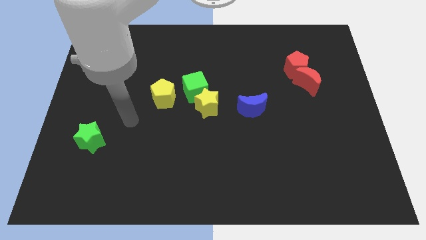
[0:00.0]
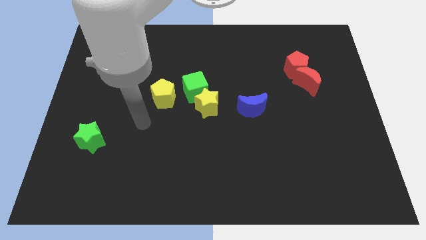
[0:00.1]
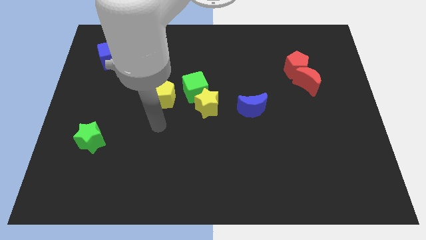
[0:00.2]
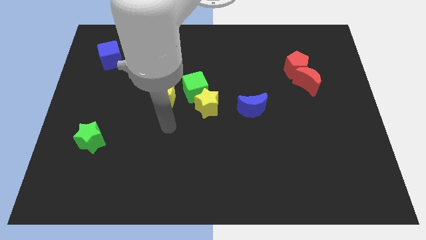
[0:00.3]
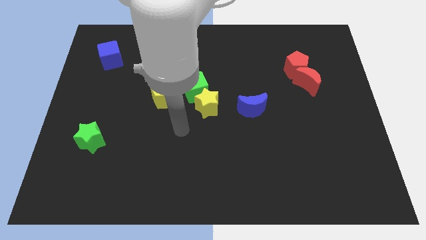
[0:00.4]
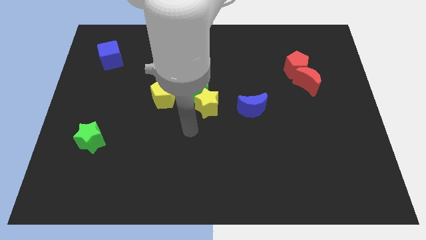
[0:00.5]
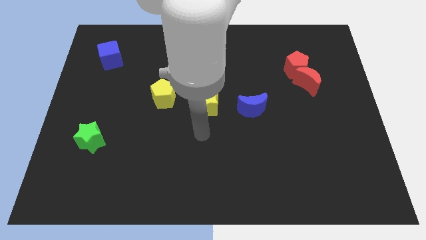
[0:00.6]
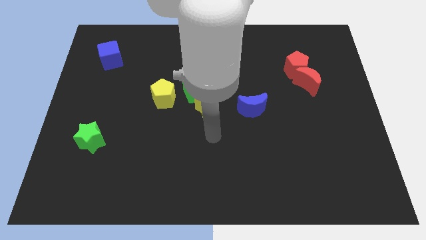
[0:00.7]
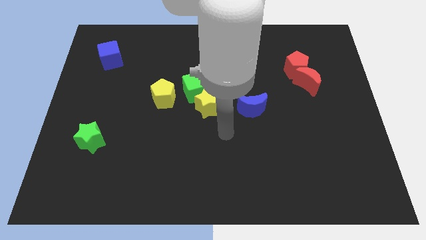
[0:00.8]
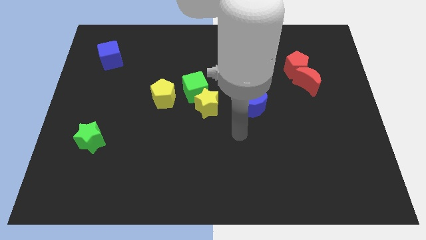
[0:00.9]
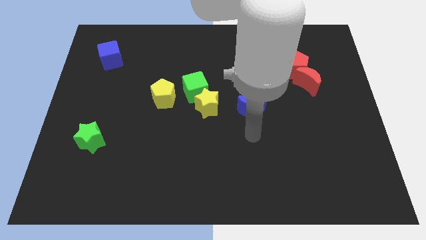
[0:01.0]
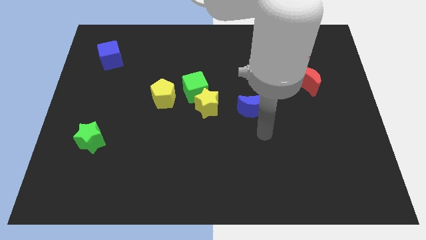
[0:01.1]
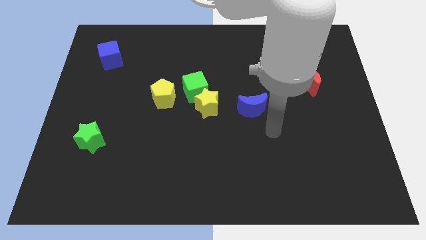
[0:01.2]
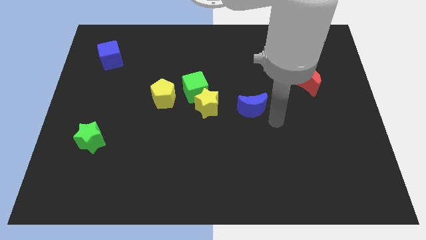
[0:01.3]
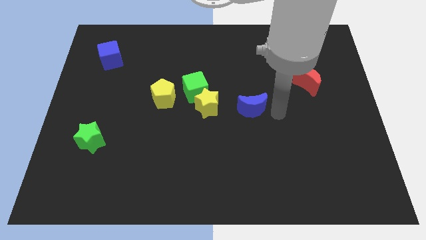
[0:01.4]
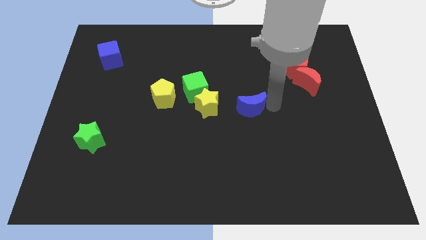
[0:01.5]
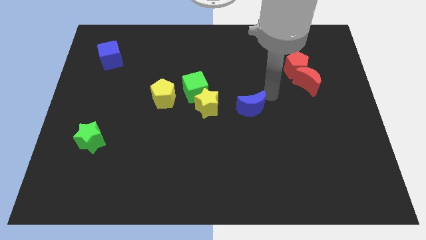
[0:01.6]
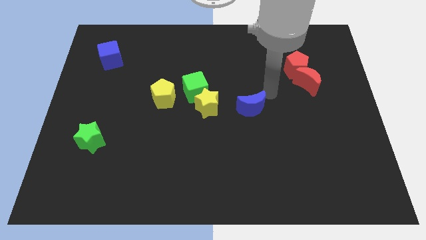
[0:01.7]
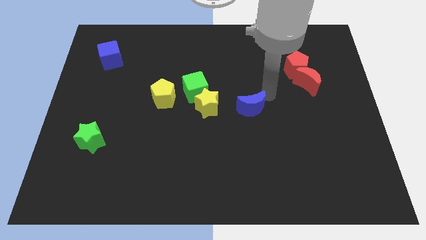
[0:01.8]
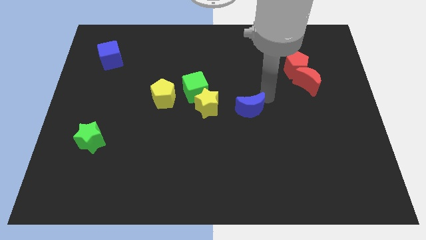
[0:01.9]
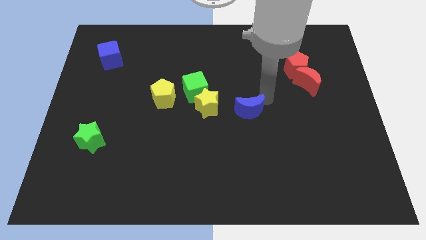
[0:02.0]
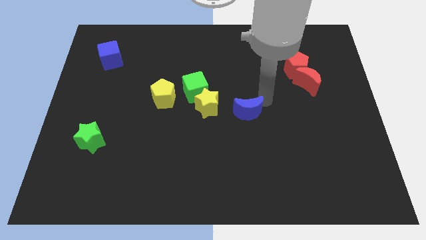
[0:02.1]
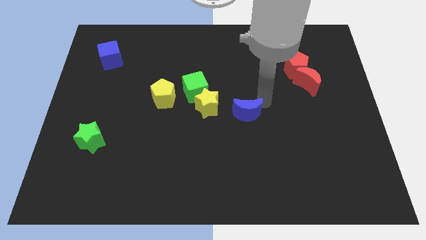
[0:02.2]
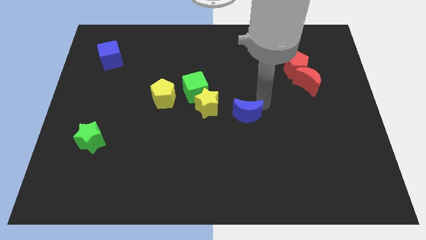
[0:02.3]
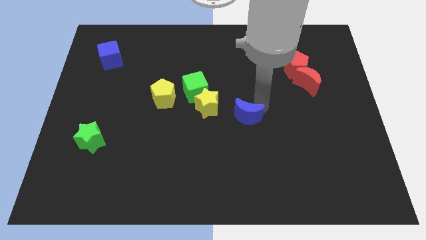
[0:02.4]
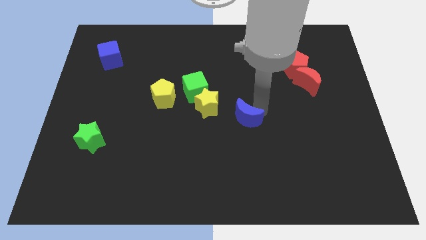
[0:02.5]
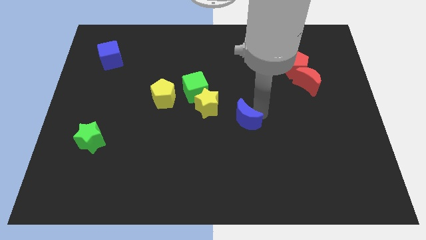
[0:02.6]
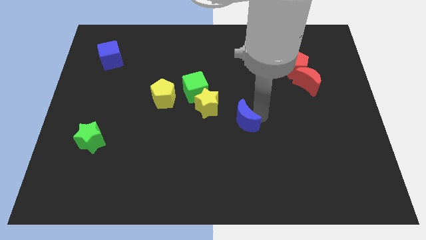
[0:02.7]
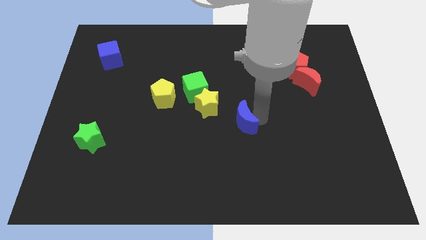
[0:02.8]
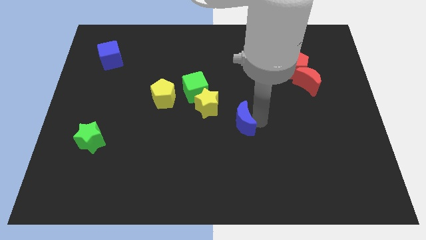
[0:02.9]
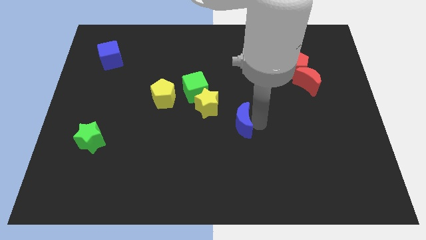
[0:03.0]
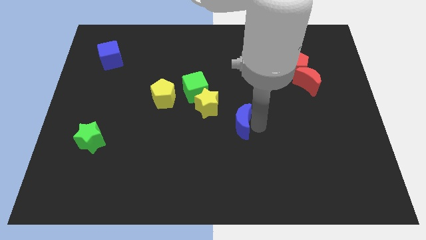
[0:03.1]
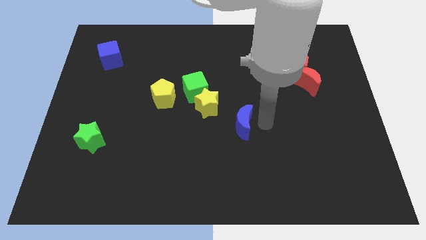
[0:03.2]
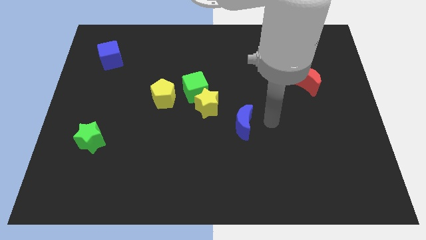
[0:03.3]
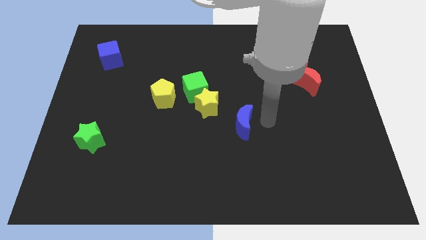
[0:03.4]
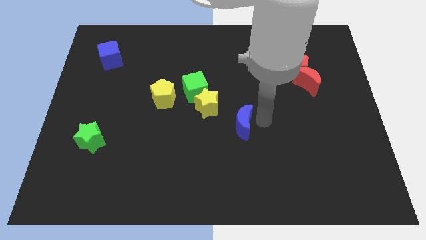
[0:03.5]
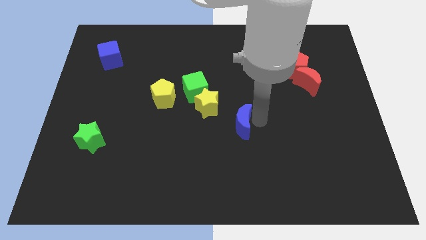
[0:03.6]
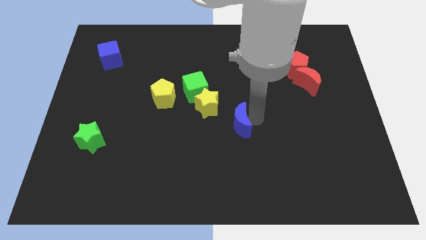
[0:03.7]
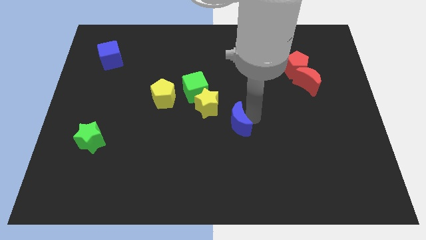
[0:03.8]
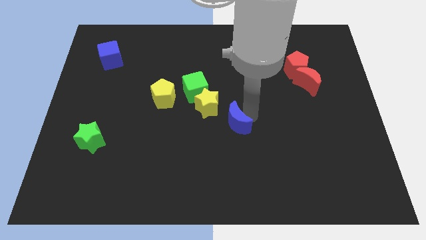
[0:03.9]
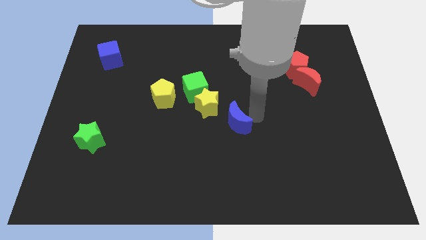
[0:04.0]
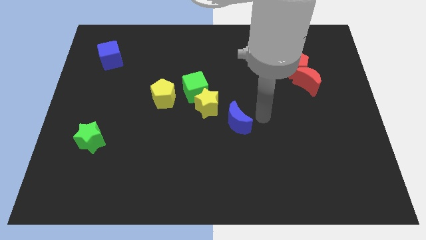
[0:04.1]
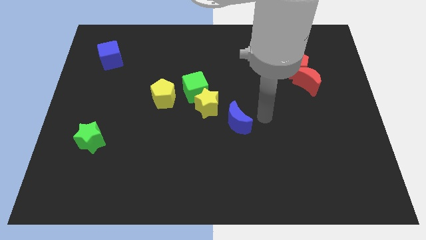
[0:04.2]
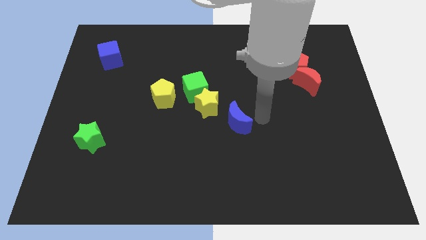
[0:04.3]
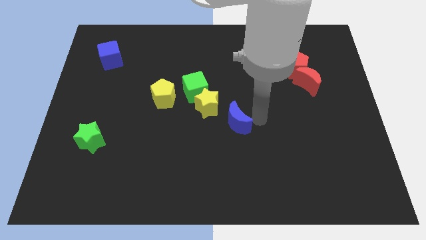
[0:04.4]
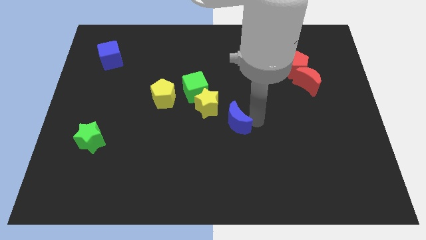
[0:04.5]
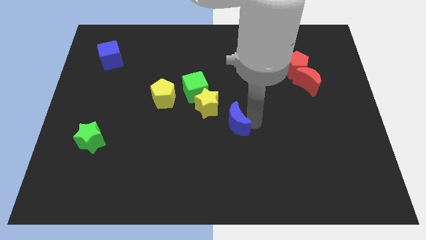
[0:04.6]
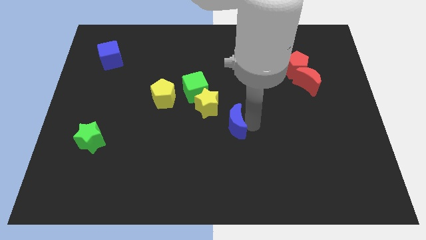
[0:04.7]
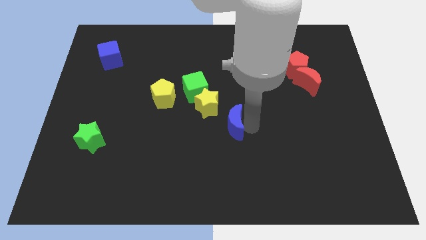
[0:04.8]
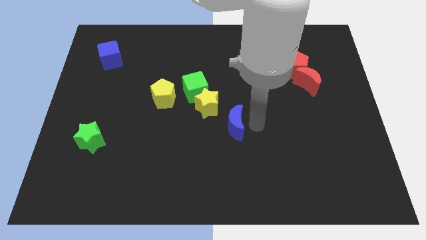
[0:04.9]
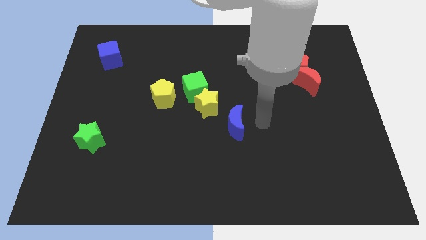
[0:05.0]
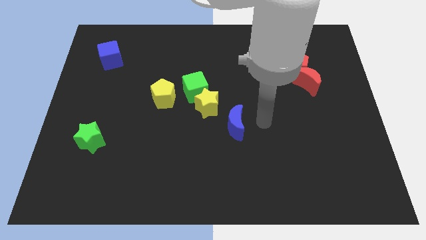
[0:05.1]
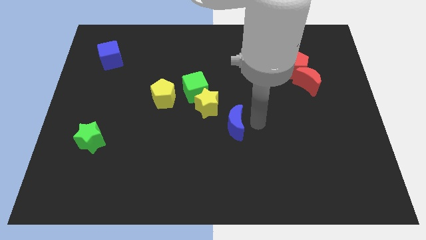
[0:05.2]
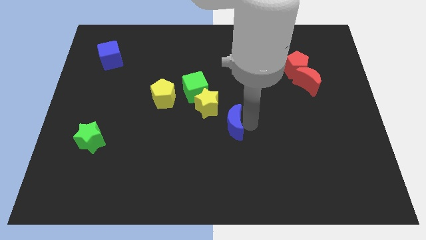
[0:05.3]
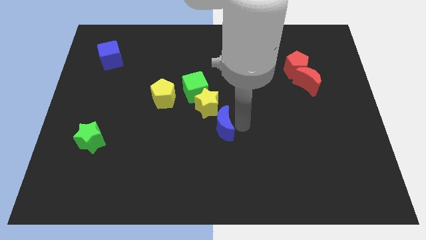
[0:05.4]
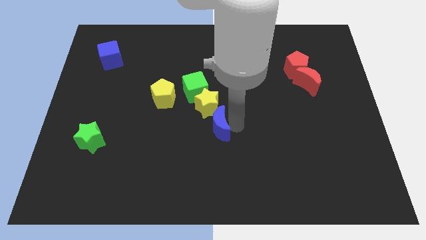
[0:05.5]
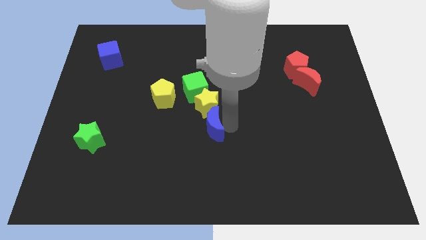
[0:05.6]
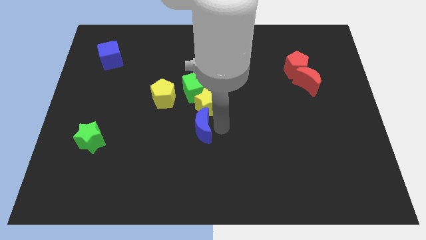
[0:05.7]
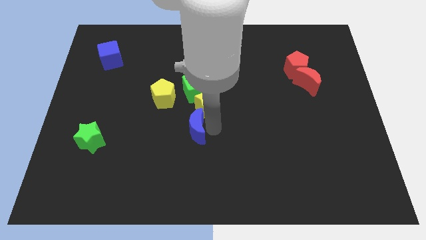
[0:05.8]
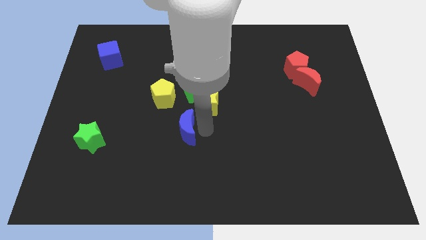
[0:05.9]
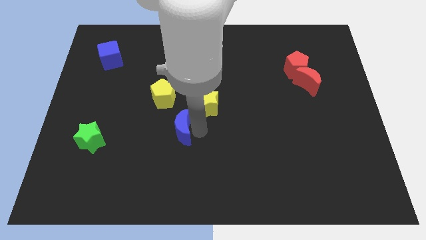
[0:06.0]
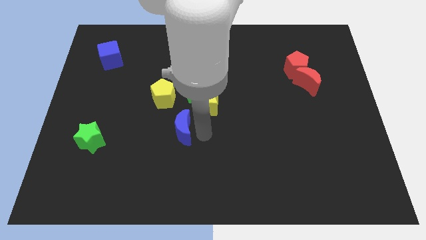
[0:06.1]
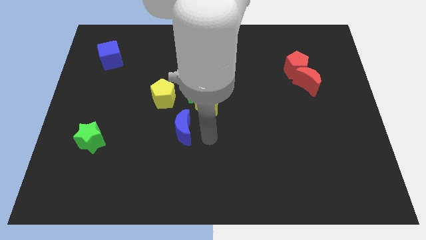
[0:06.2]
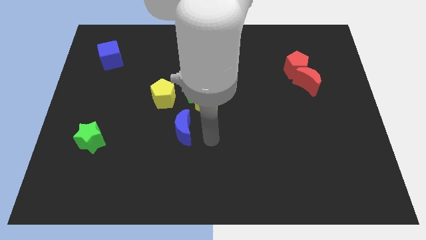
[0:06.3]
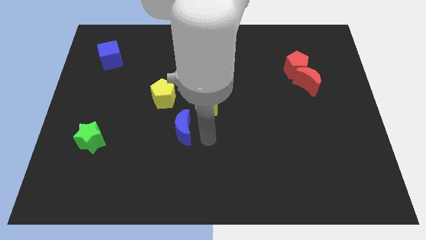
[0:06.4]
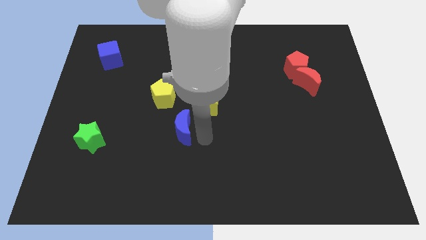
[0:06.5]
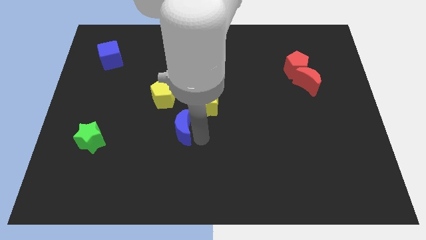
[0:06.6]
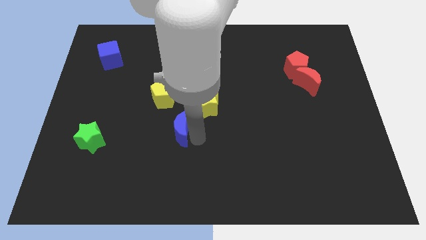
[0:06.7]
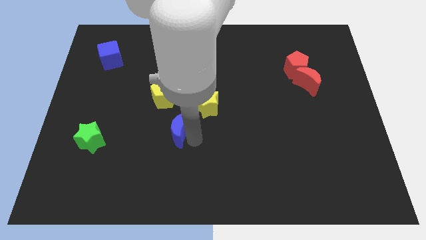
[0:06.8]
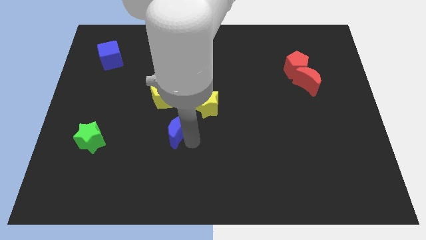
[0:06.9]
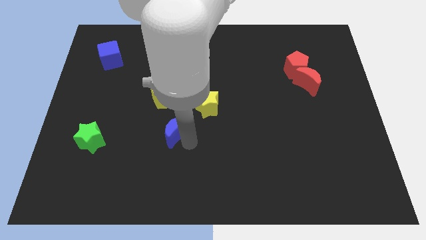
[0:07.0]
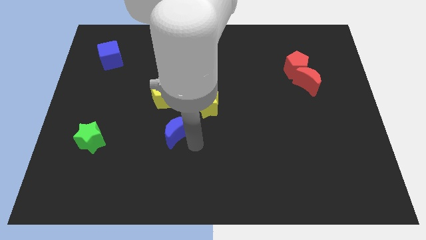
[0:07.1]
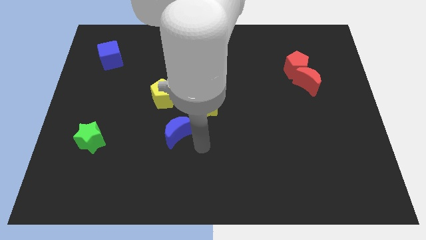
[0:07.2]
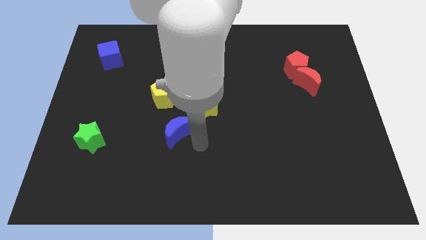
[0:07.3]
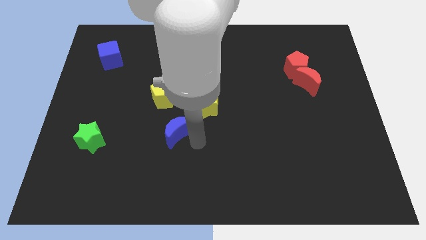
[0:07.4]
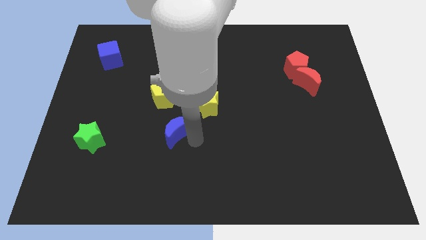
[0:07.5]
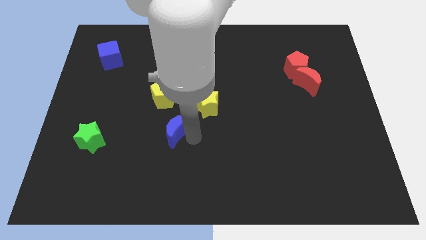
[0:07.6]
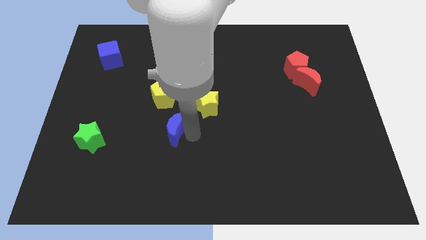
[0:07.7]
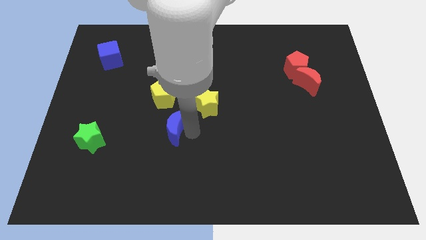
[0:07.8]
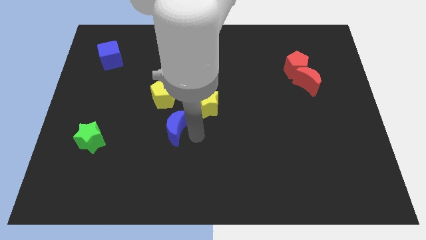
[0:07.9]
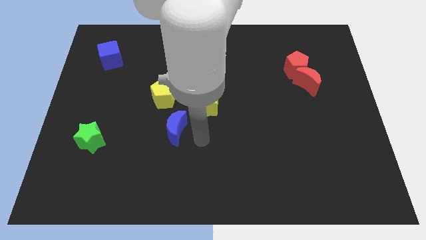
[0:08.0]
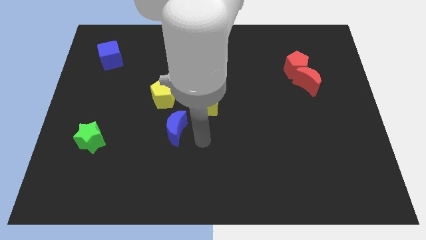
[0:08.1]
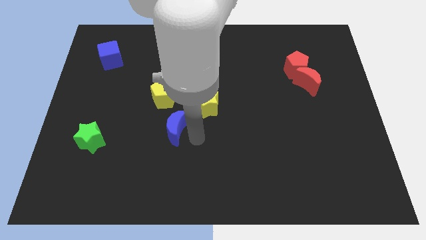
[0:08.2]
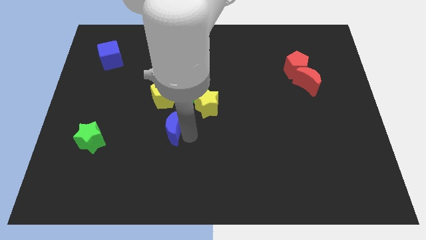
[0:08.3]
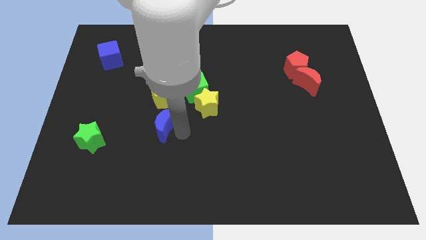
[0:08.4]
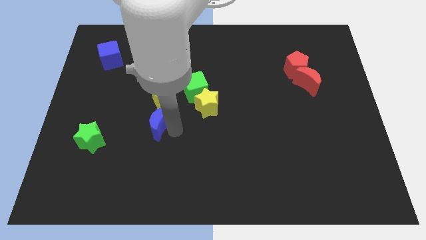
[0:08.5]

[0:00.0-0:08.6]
slide the blue moon to the left
